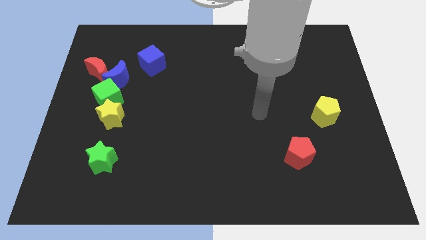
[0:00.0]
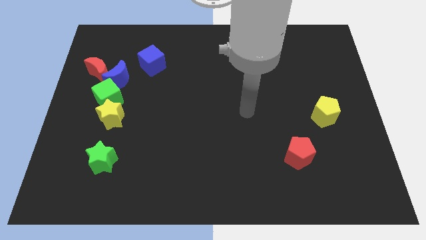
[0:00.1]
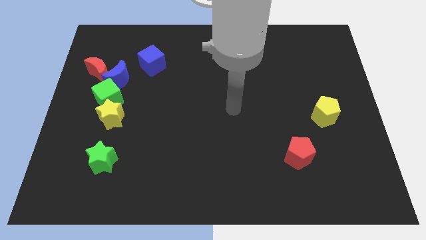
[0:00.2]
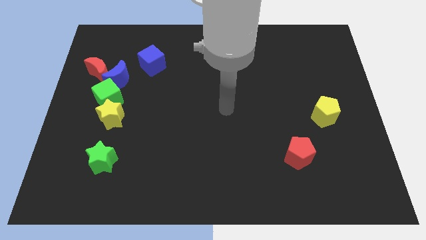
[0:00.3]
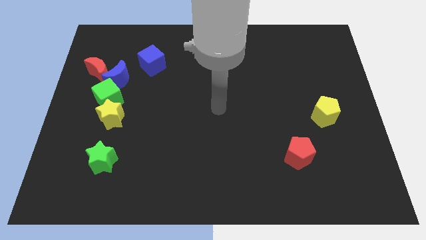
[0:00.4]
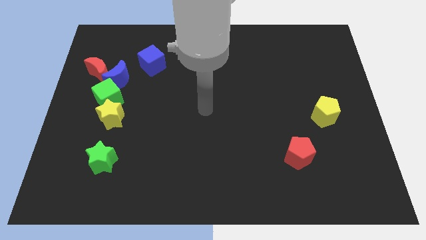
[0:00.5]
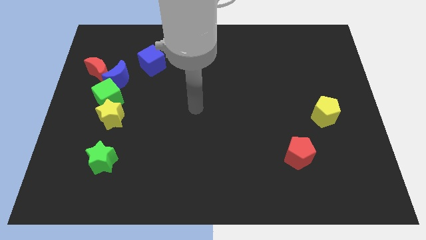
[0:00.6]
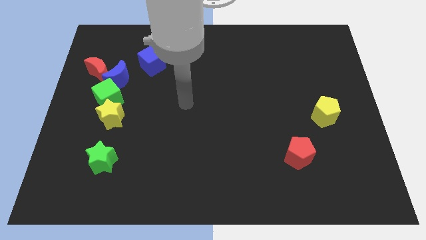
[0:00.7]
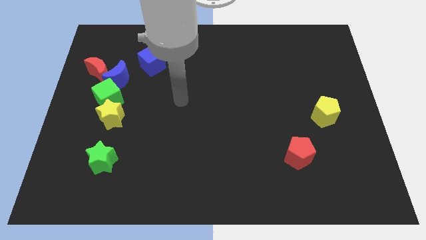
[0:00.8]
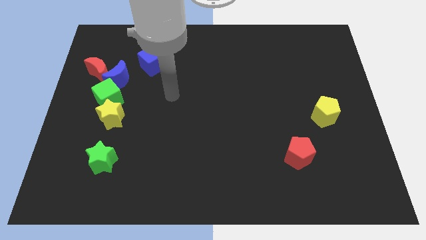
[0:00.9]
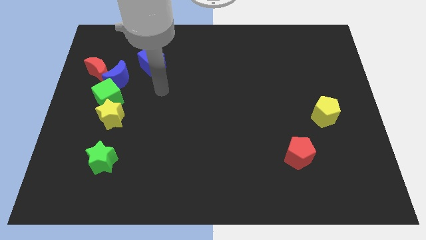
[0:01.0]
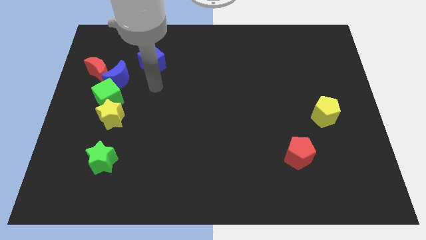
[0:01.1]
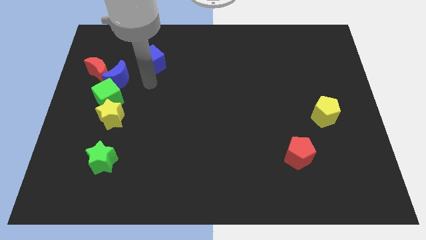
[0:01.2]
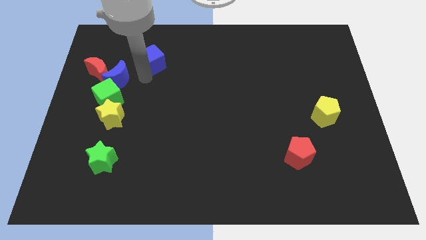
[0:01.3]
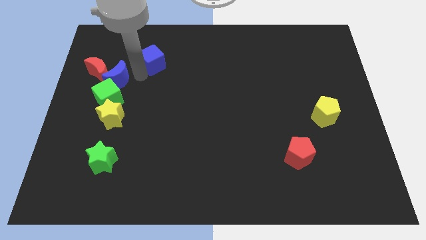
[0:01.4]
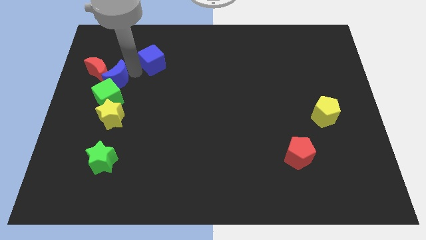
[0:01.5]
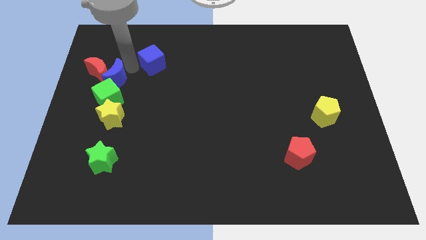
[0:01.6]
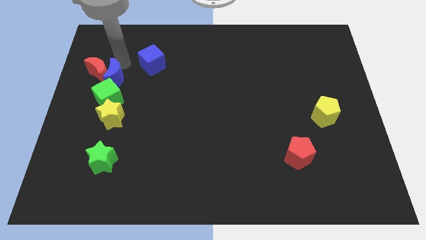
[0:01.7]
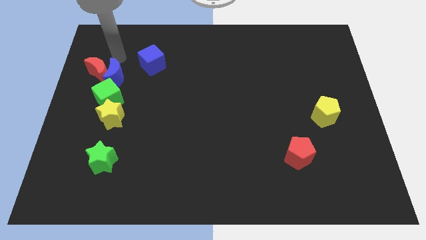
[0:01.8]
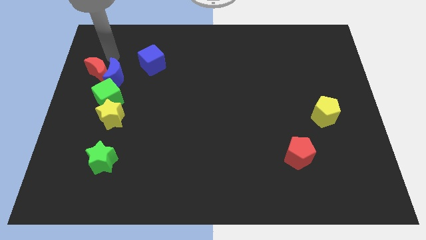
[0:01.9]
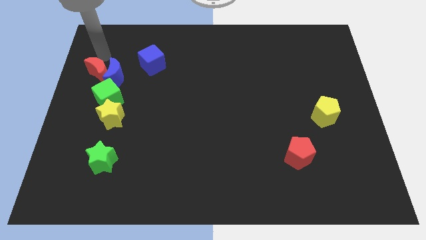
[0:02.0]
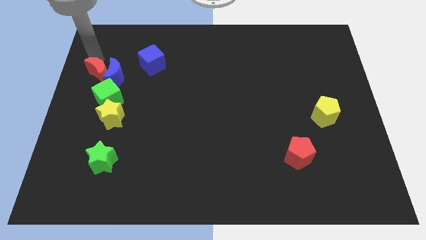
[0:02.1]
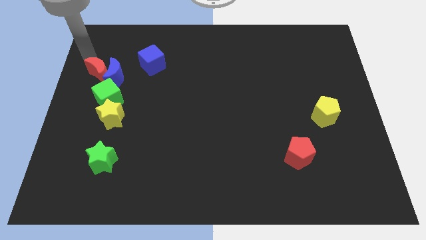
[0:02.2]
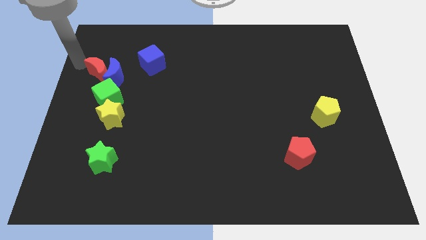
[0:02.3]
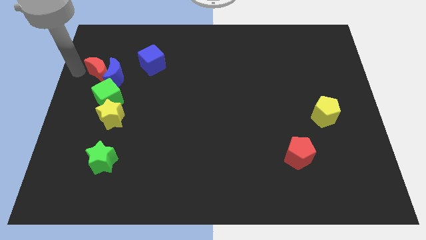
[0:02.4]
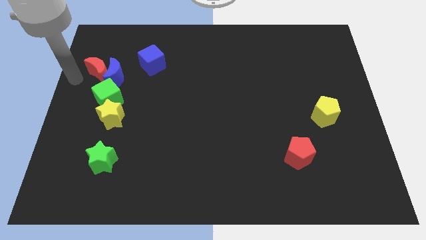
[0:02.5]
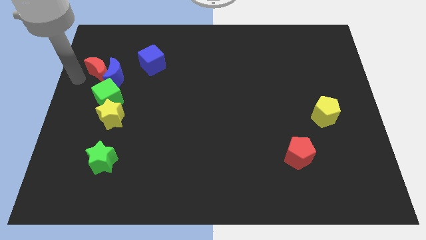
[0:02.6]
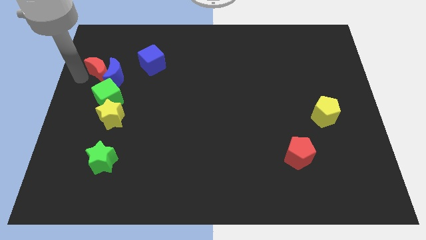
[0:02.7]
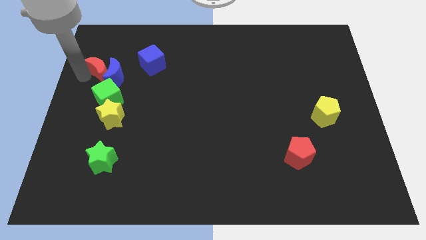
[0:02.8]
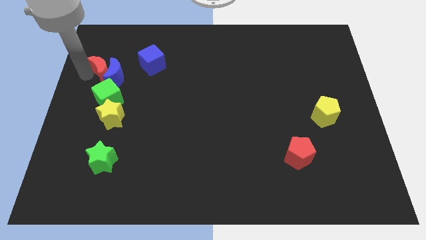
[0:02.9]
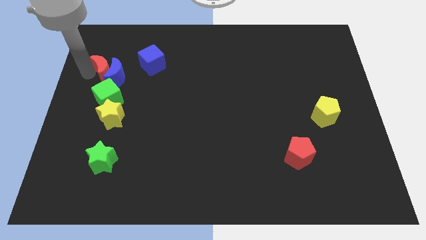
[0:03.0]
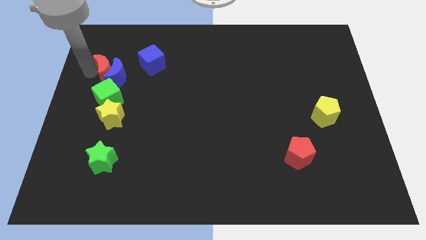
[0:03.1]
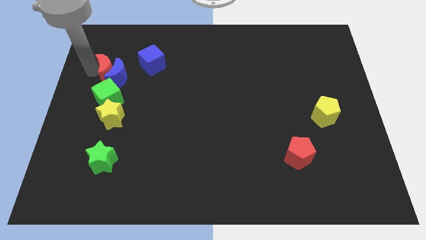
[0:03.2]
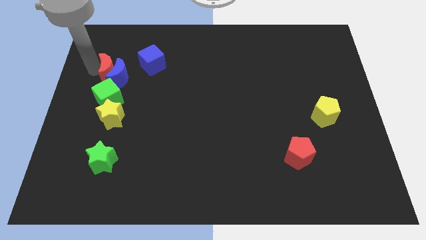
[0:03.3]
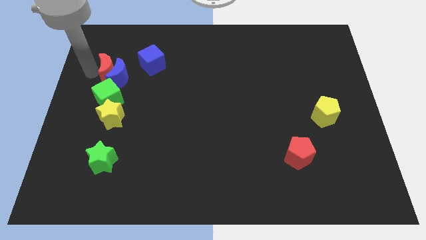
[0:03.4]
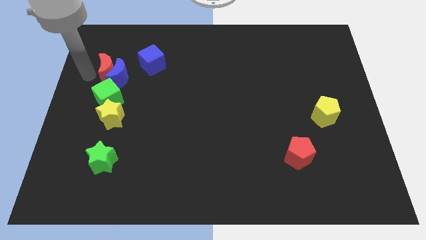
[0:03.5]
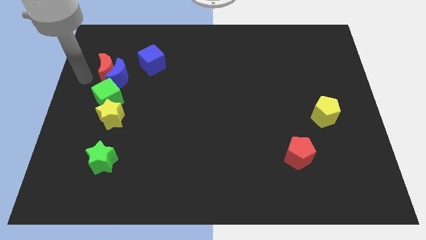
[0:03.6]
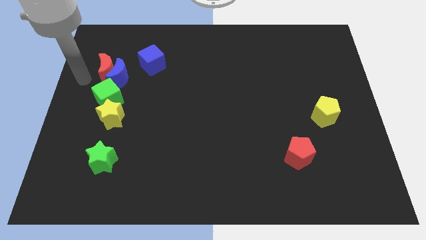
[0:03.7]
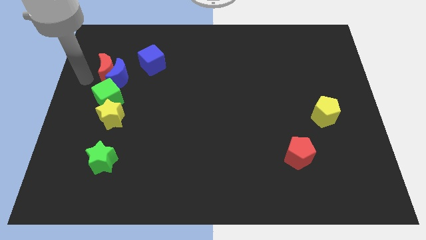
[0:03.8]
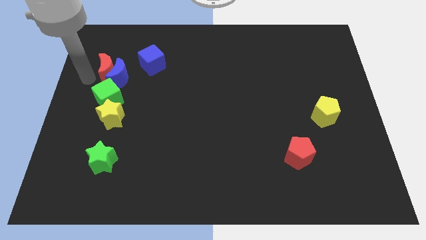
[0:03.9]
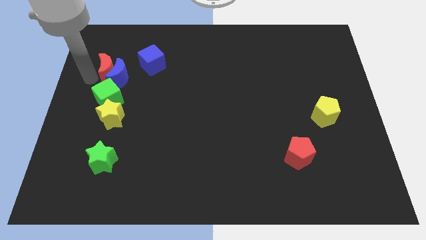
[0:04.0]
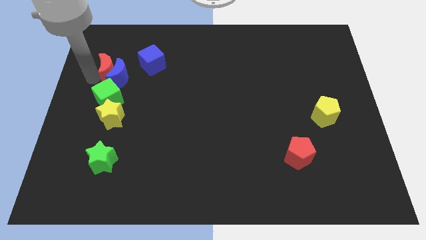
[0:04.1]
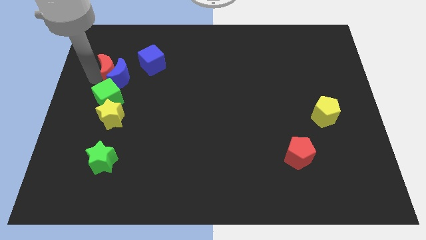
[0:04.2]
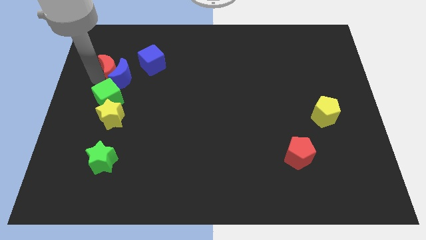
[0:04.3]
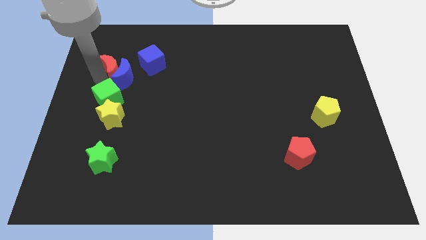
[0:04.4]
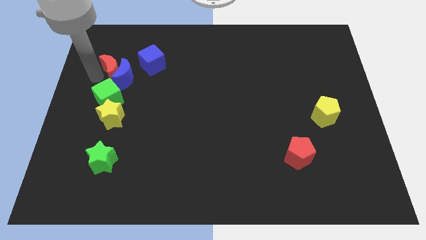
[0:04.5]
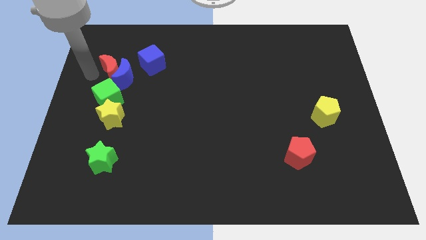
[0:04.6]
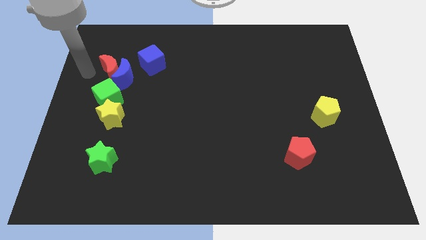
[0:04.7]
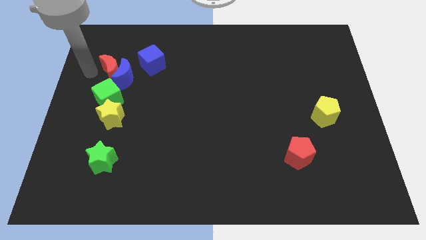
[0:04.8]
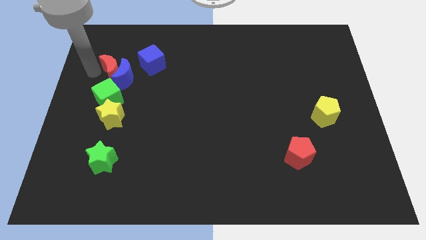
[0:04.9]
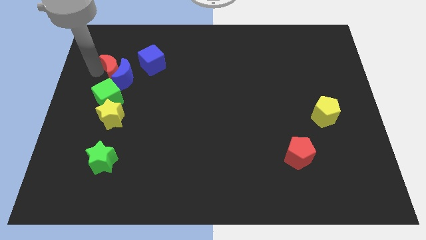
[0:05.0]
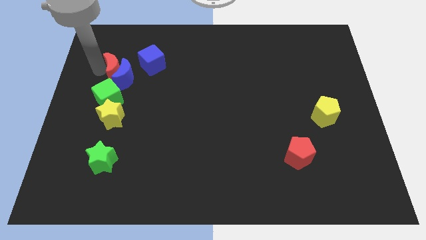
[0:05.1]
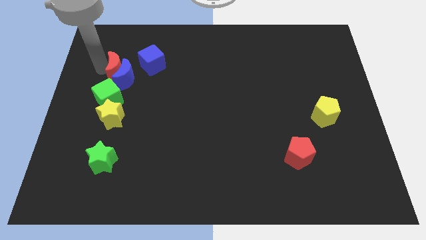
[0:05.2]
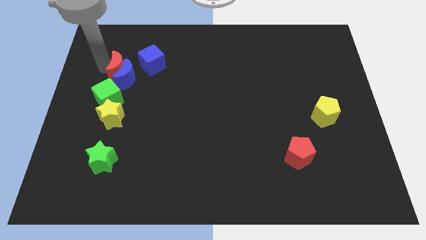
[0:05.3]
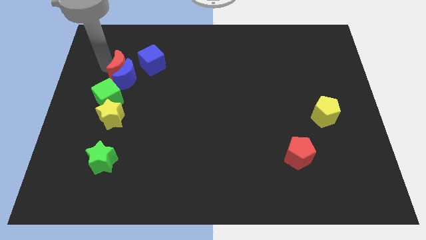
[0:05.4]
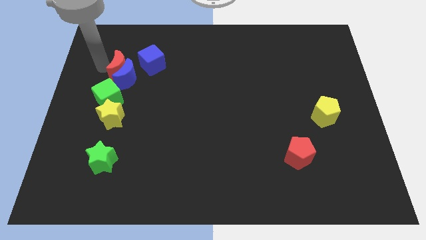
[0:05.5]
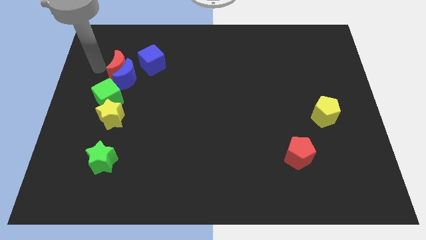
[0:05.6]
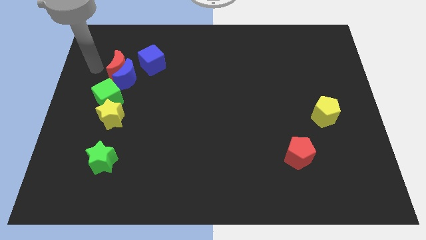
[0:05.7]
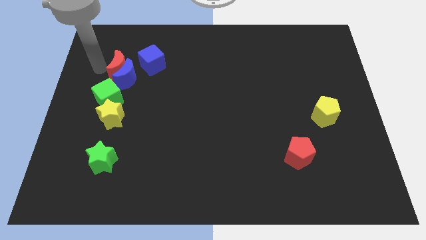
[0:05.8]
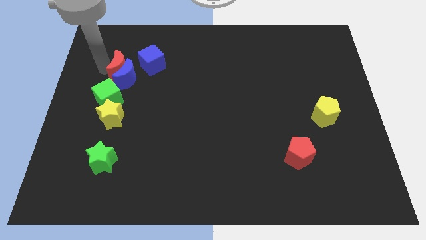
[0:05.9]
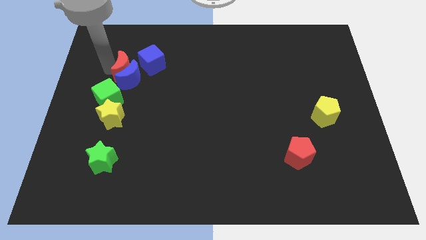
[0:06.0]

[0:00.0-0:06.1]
move the red moon to the top right of the green cube

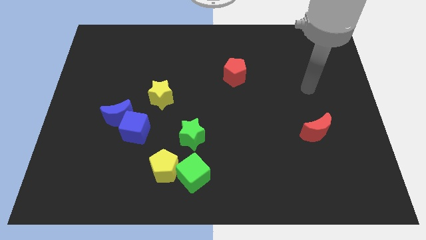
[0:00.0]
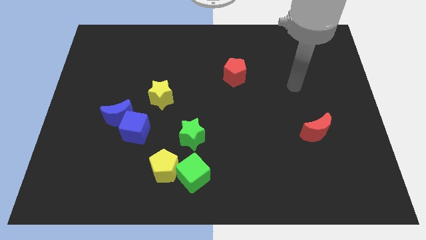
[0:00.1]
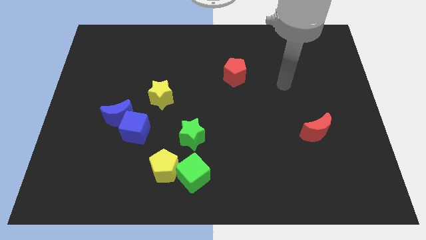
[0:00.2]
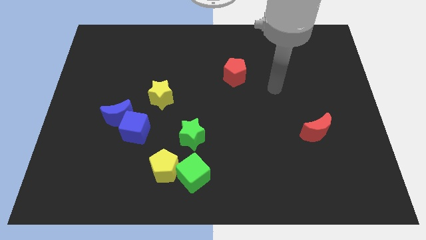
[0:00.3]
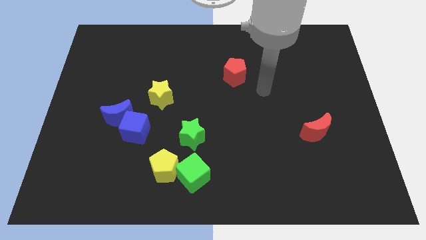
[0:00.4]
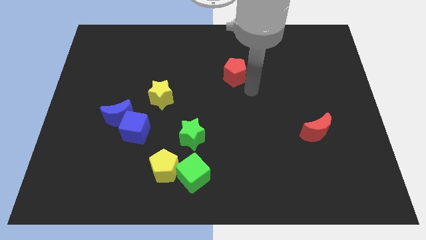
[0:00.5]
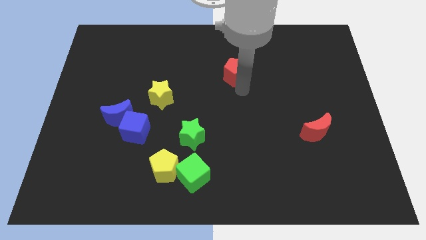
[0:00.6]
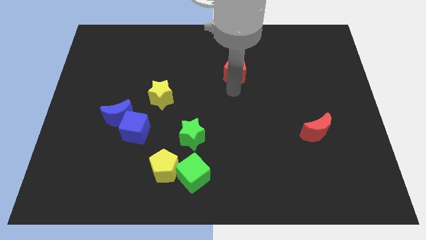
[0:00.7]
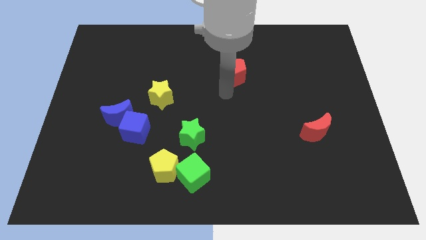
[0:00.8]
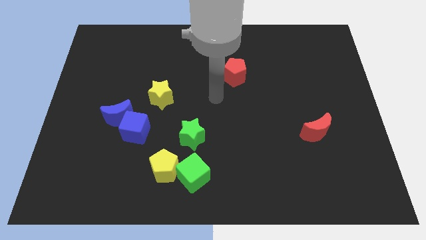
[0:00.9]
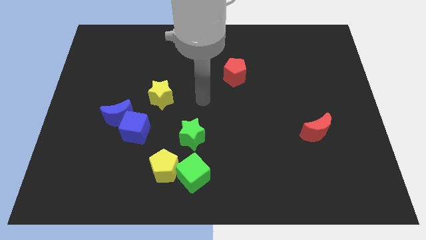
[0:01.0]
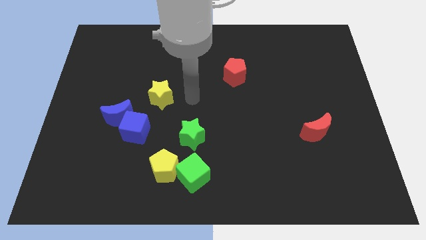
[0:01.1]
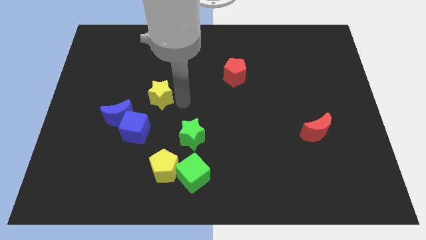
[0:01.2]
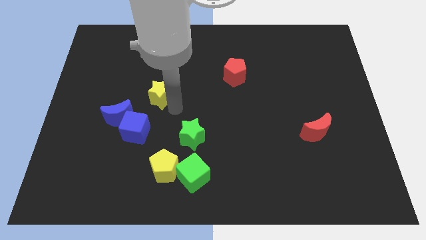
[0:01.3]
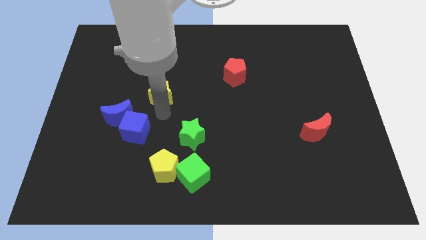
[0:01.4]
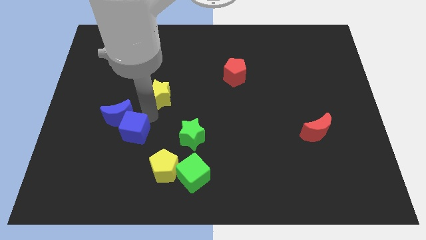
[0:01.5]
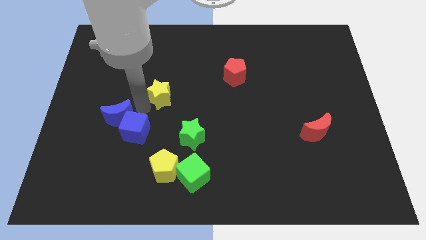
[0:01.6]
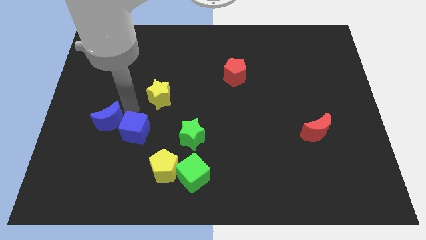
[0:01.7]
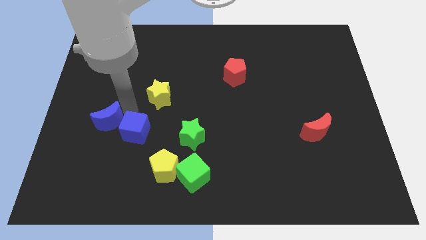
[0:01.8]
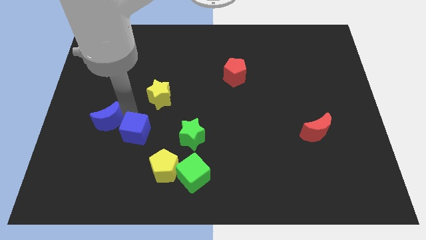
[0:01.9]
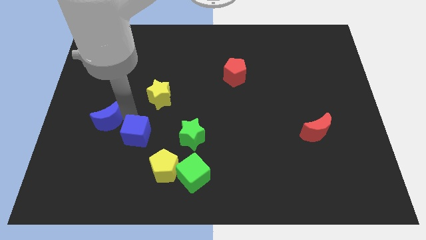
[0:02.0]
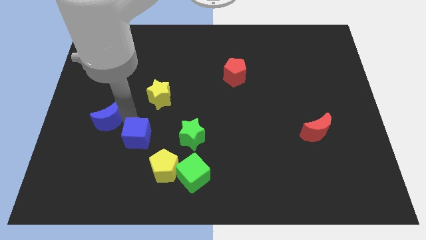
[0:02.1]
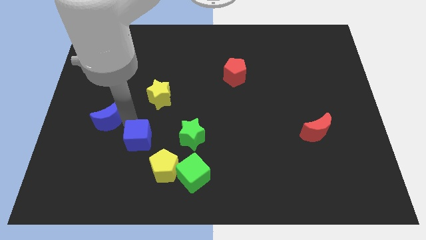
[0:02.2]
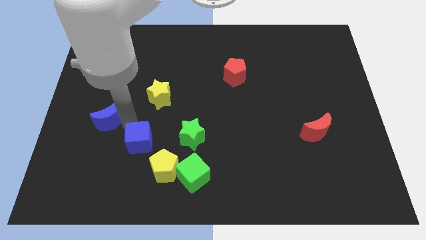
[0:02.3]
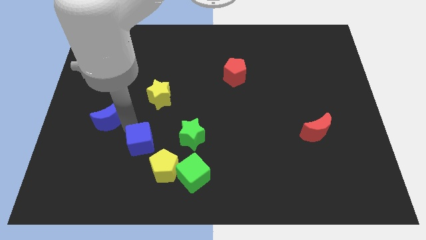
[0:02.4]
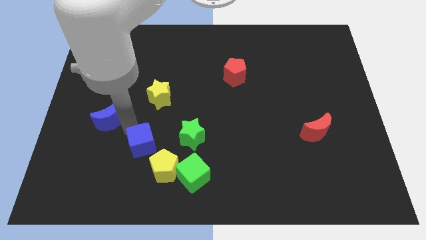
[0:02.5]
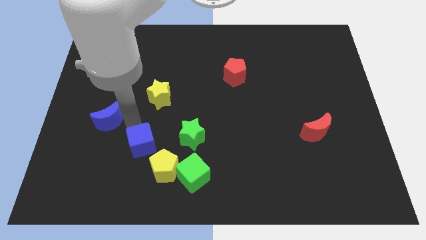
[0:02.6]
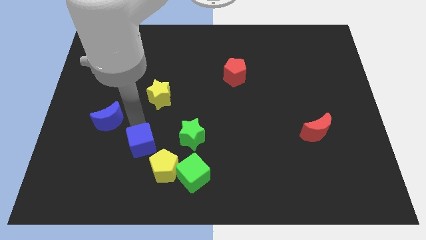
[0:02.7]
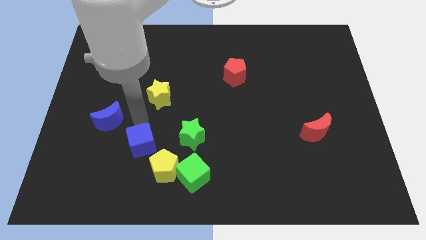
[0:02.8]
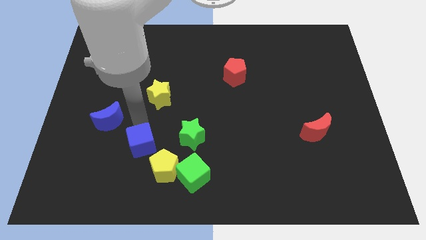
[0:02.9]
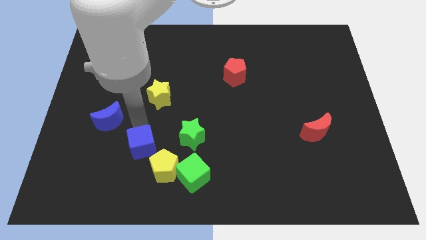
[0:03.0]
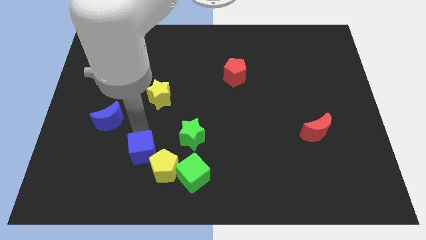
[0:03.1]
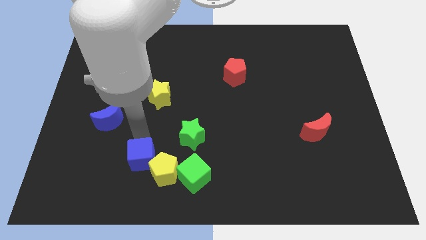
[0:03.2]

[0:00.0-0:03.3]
move the blue cube just left of the green cube
